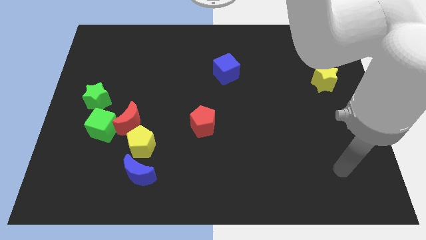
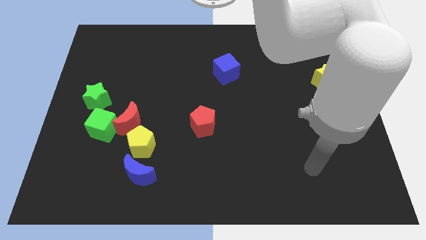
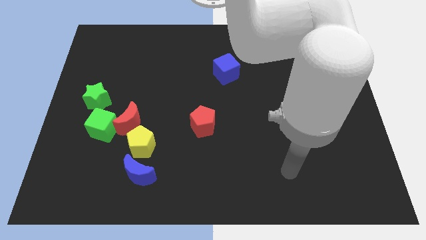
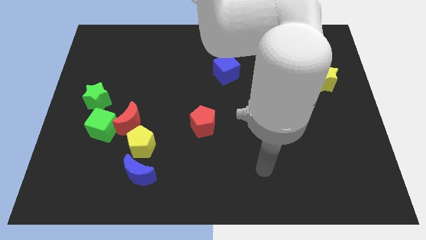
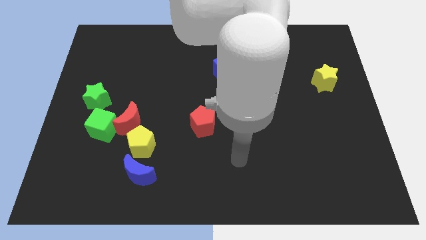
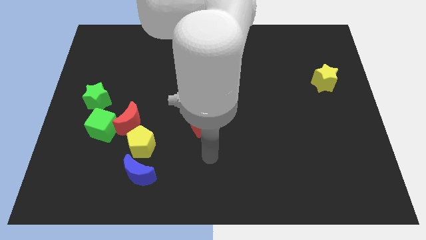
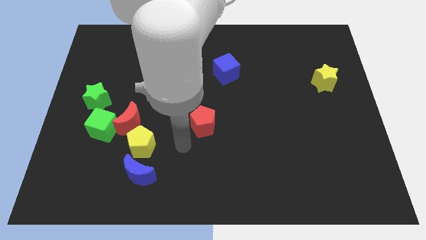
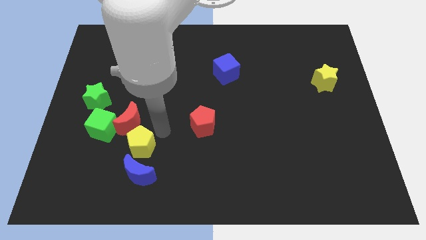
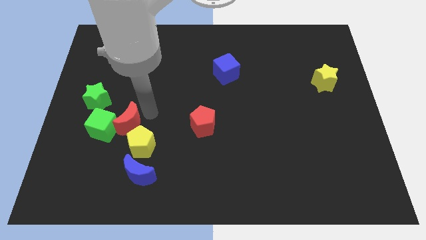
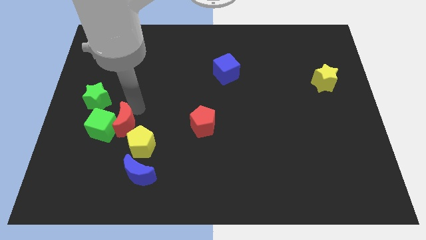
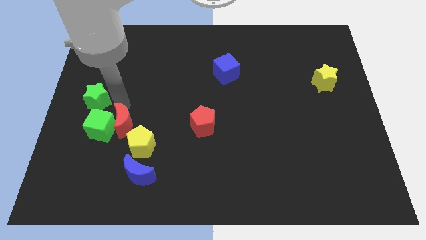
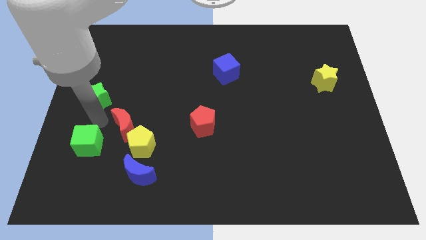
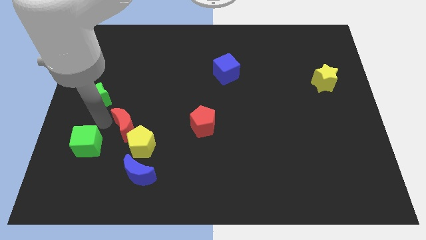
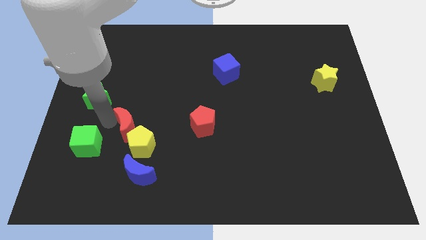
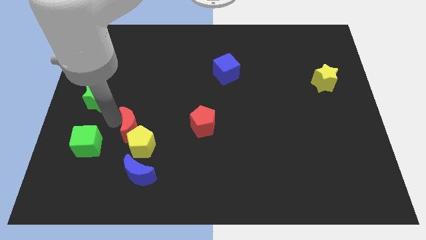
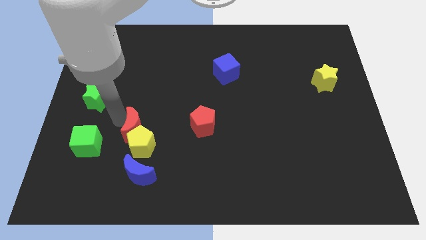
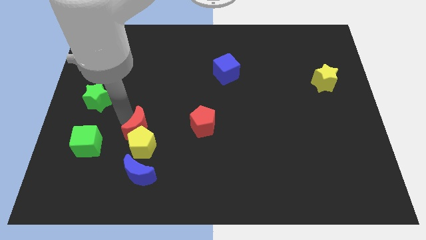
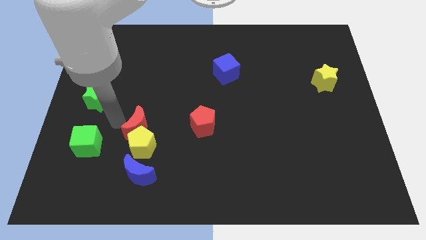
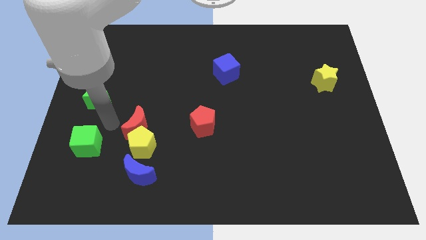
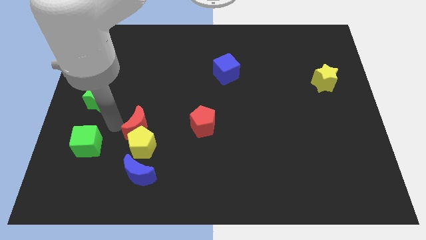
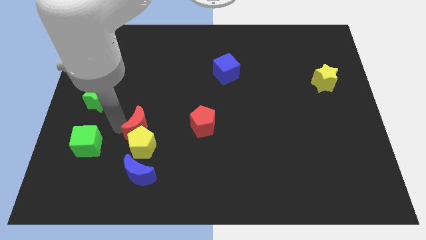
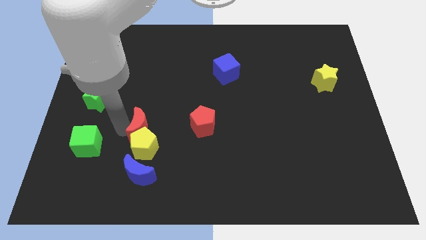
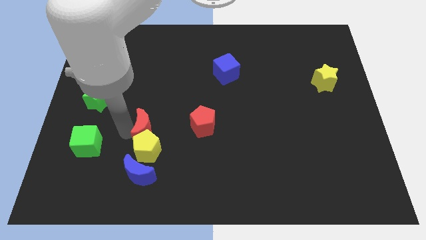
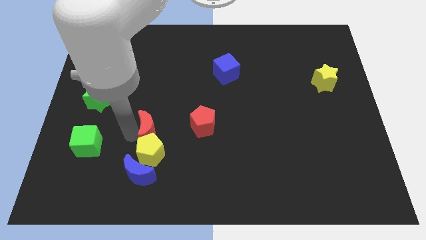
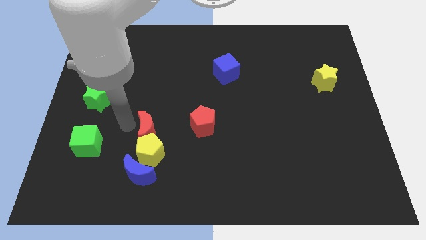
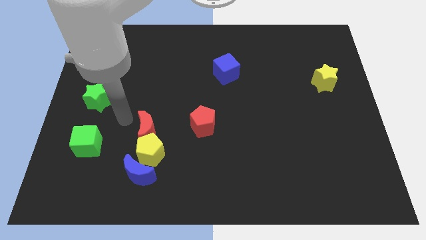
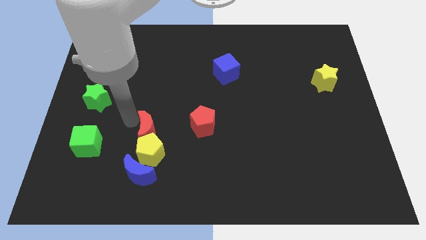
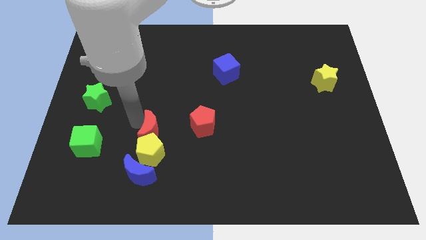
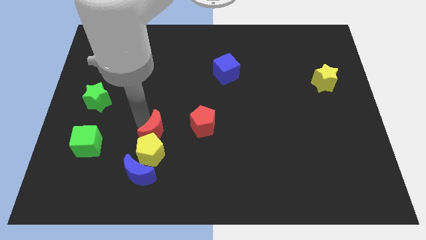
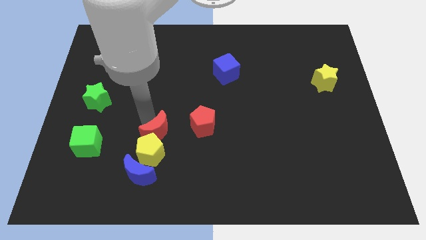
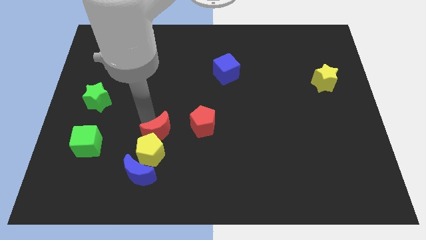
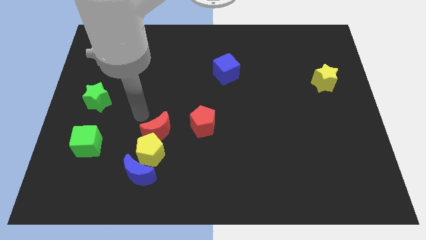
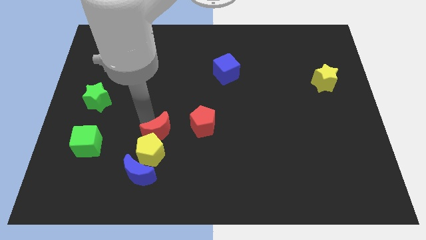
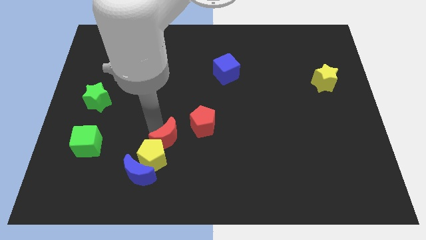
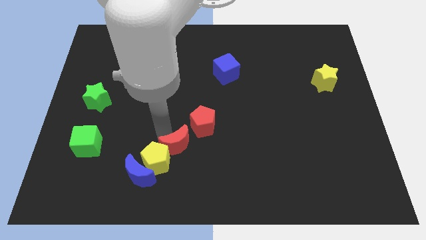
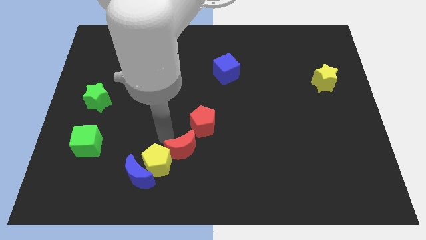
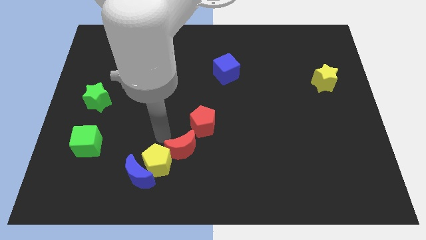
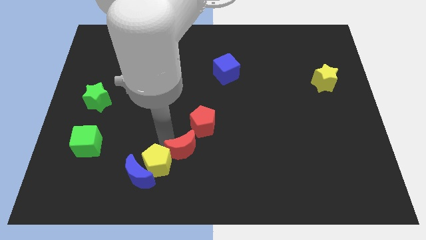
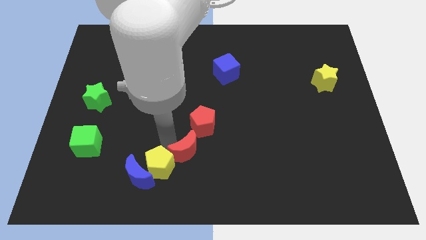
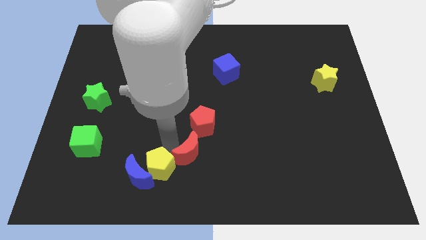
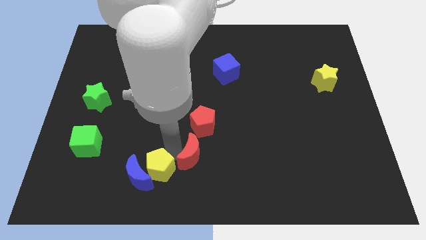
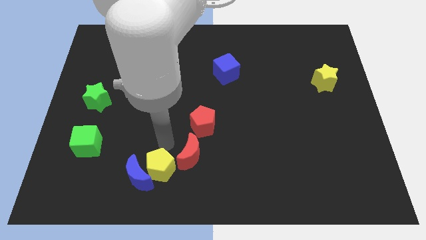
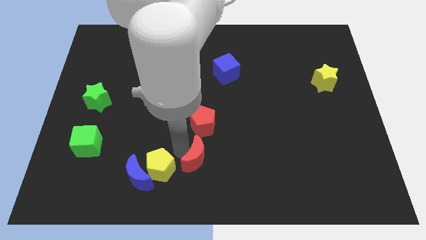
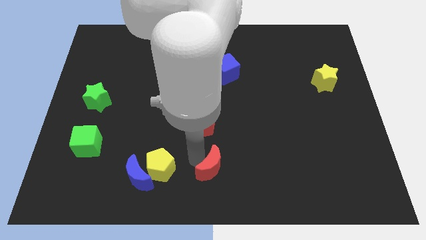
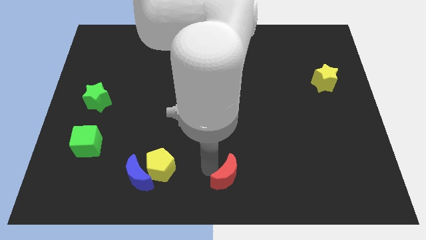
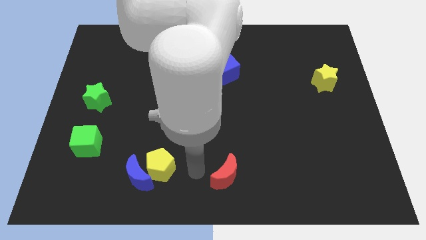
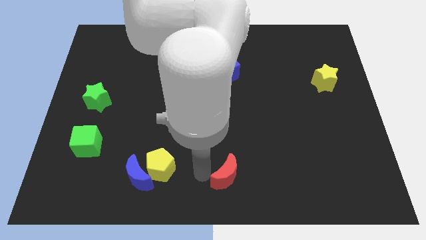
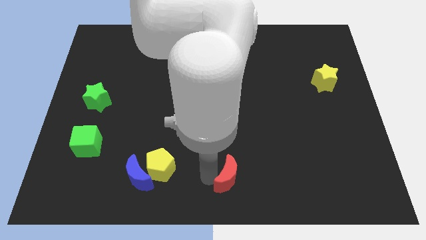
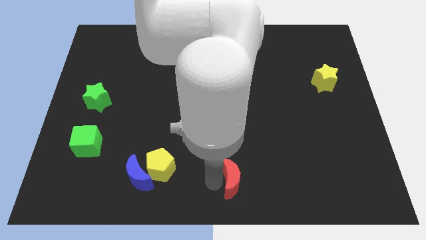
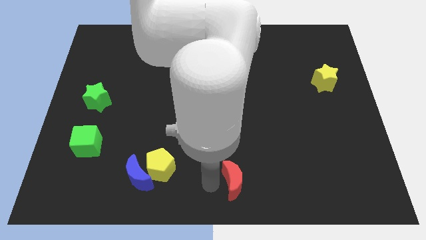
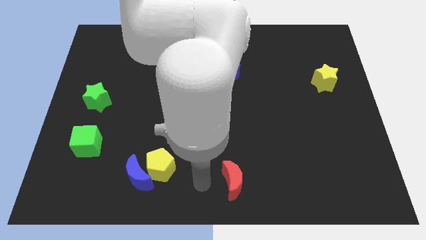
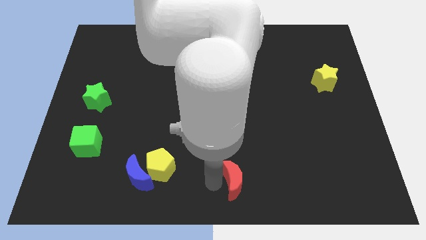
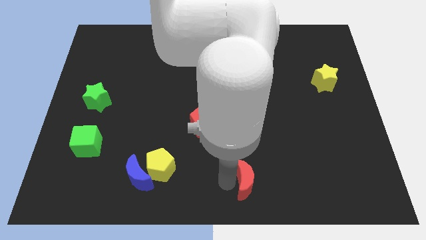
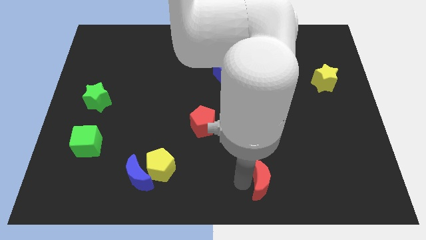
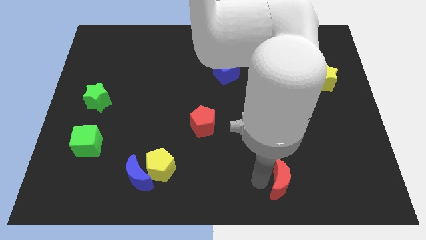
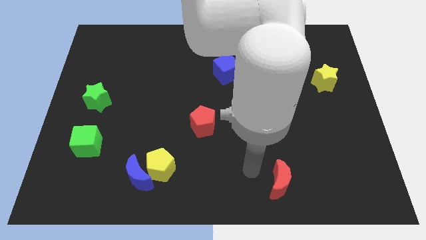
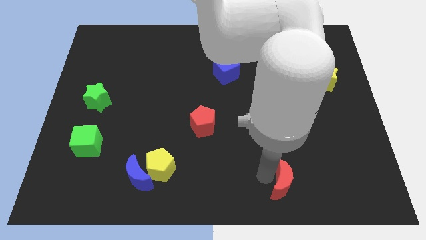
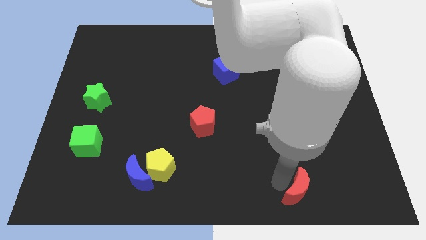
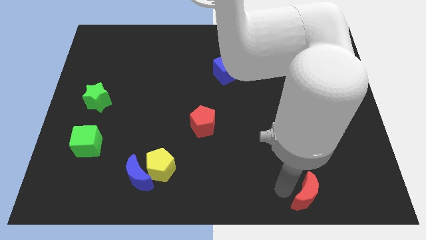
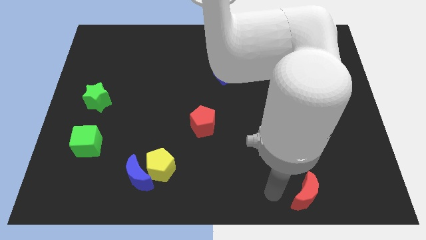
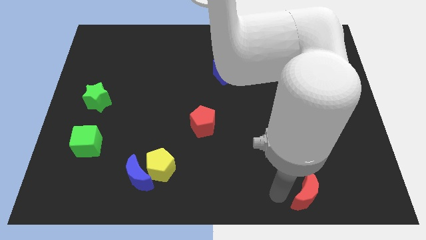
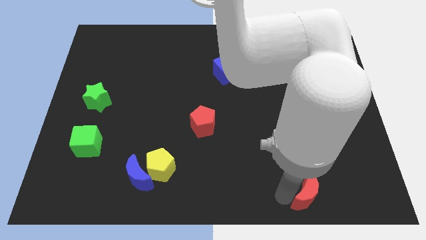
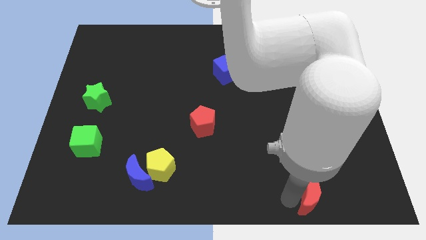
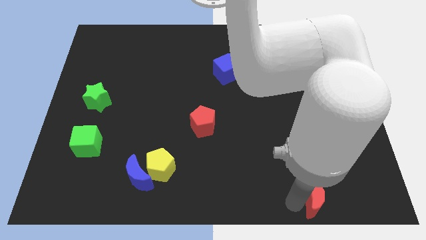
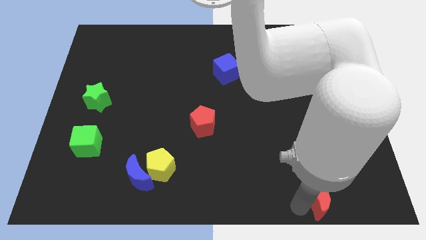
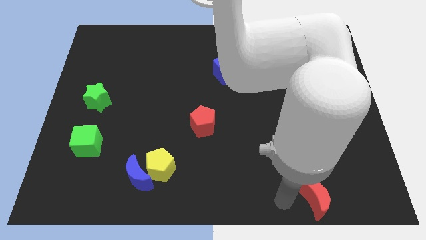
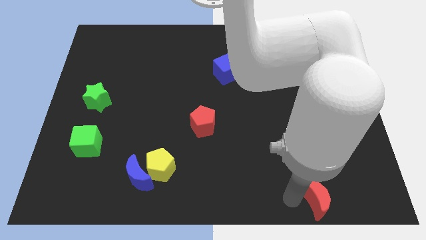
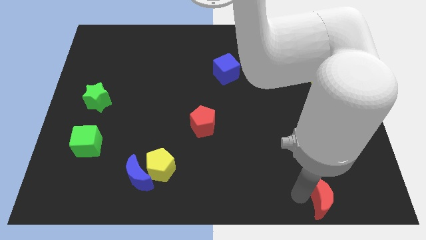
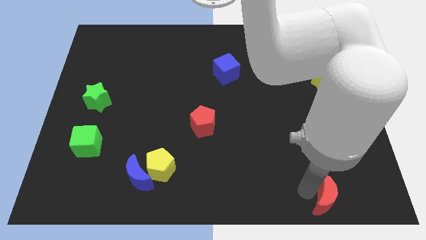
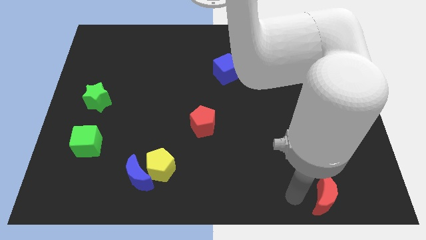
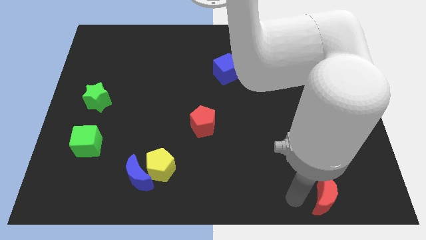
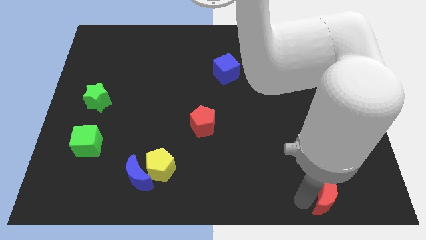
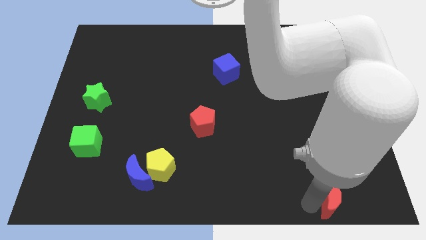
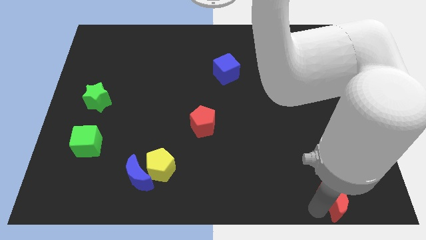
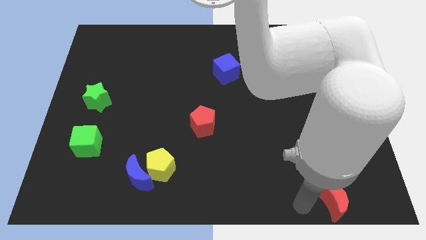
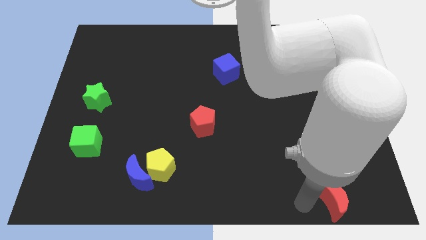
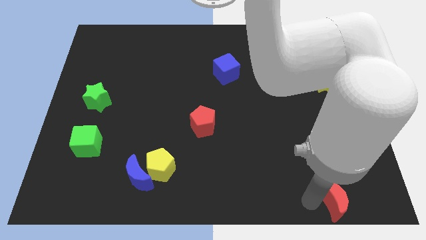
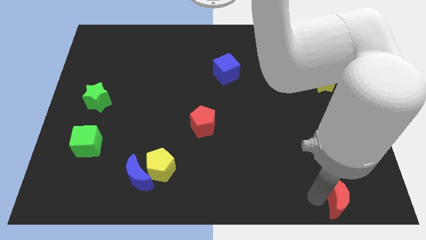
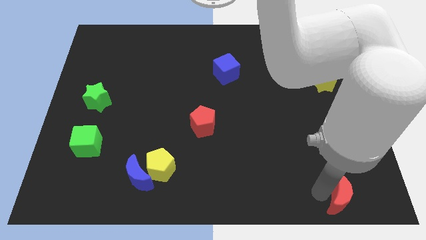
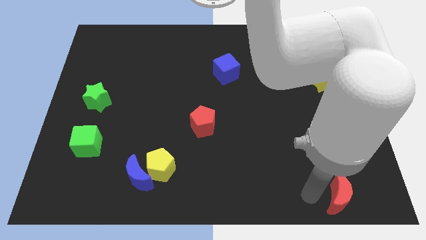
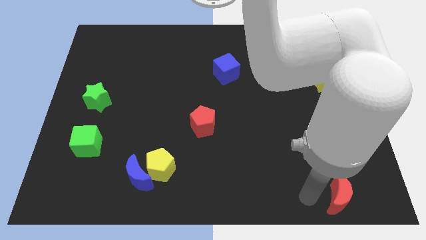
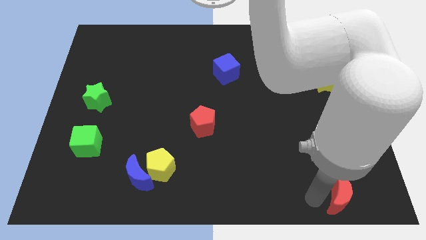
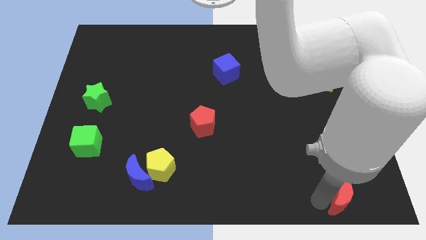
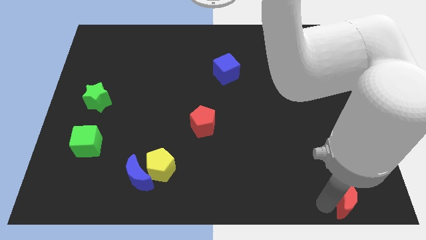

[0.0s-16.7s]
put the red moon to the bottom right
